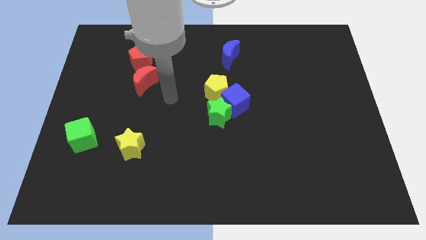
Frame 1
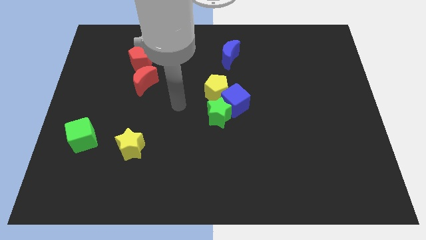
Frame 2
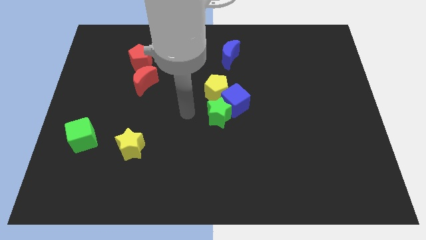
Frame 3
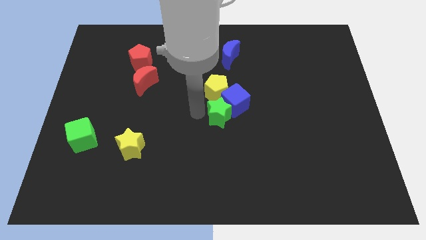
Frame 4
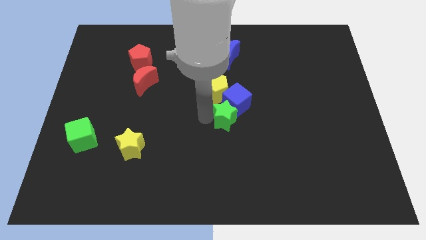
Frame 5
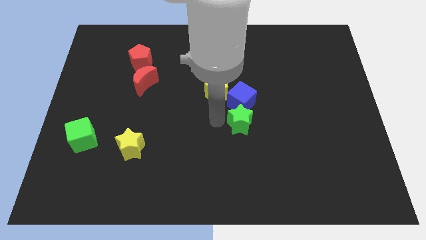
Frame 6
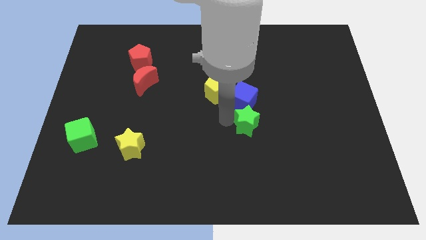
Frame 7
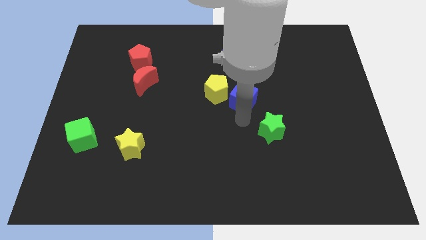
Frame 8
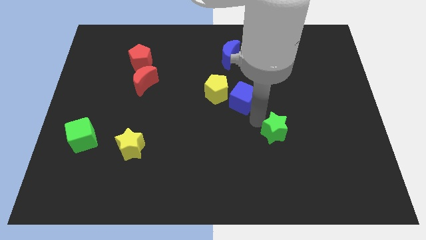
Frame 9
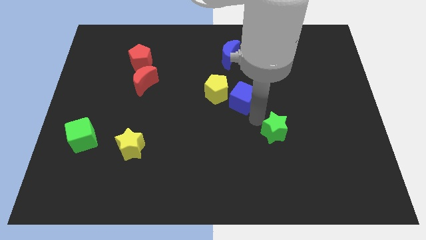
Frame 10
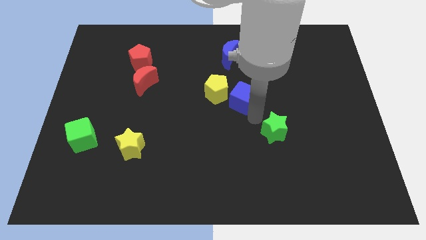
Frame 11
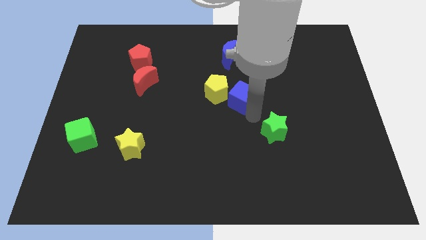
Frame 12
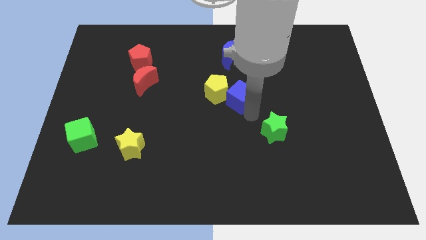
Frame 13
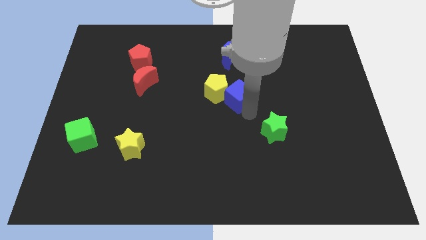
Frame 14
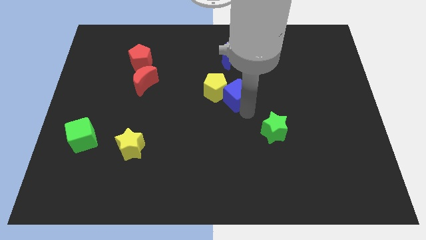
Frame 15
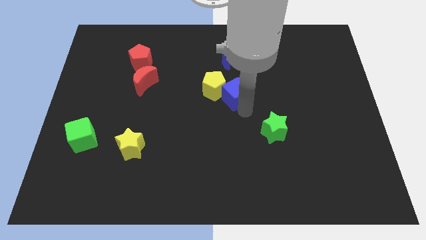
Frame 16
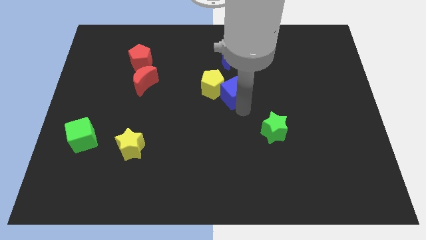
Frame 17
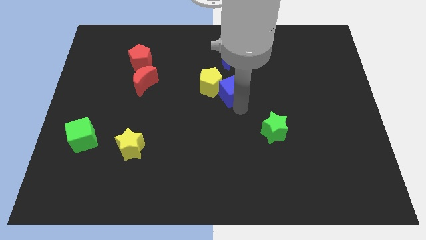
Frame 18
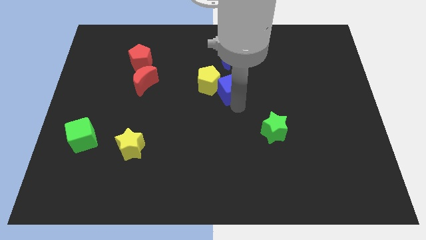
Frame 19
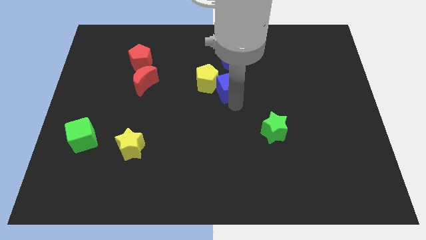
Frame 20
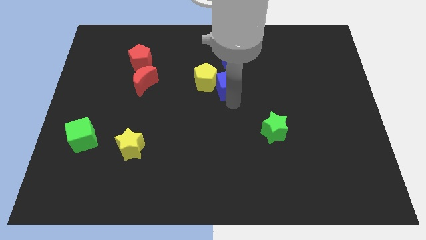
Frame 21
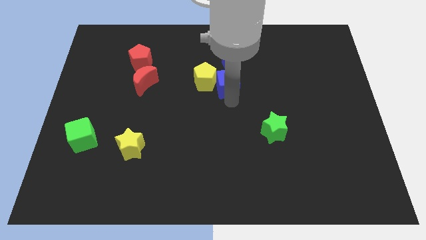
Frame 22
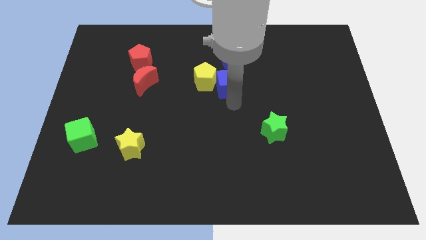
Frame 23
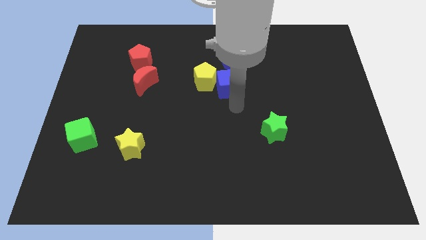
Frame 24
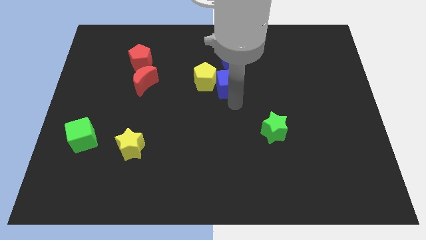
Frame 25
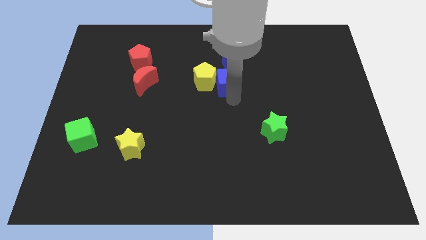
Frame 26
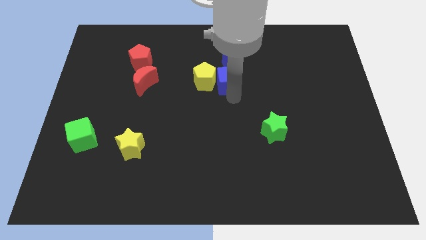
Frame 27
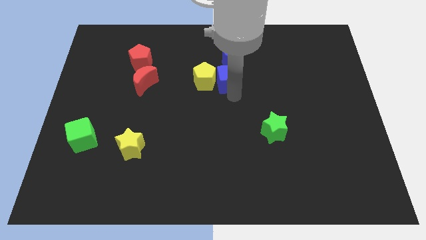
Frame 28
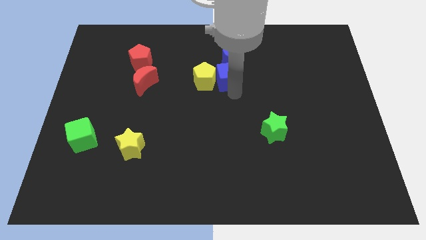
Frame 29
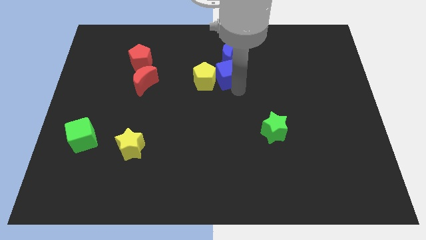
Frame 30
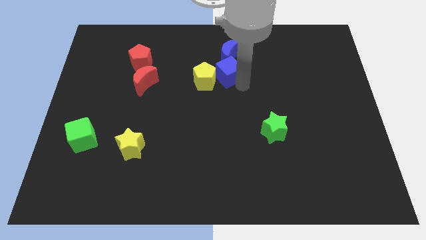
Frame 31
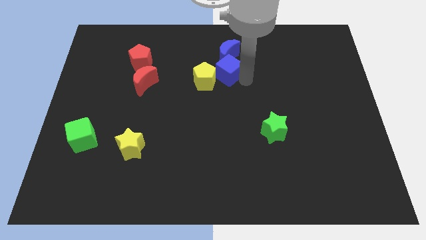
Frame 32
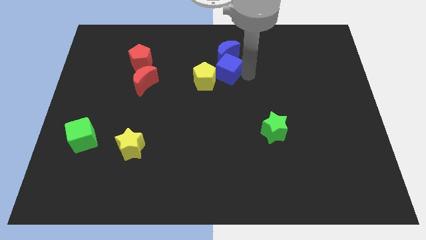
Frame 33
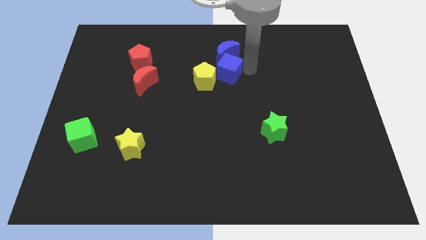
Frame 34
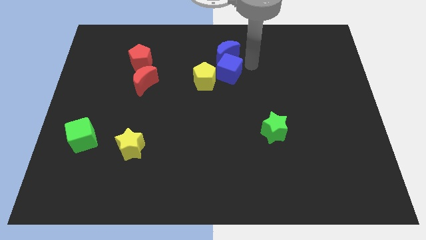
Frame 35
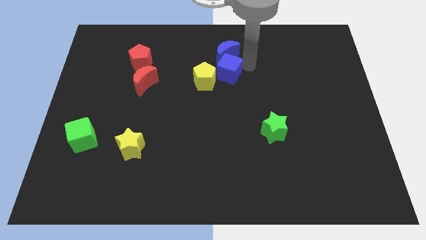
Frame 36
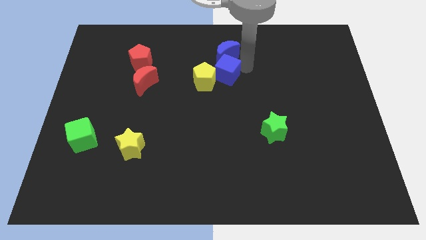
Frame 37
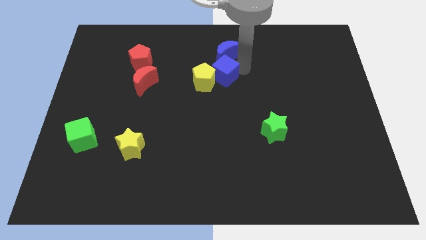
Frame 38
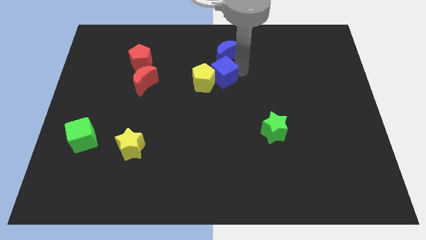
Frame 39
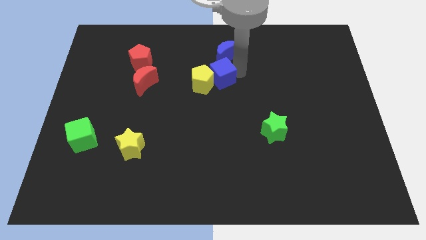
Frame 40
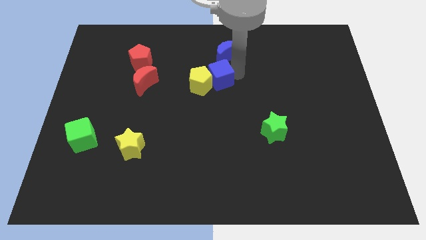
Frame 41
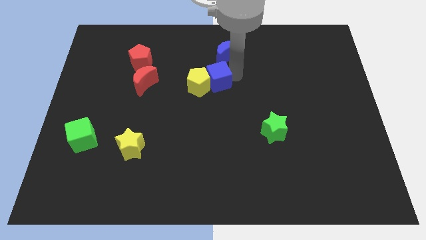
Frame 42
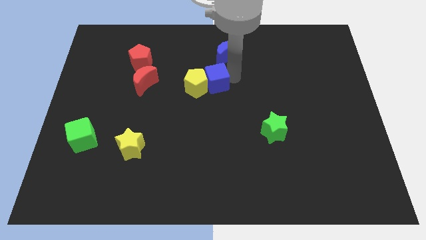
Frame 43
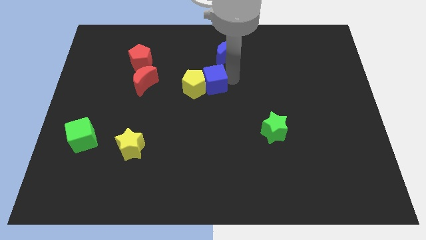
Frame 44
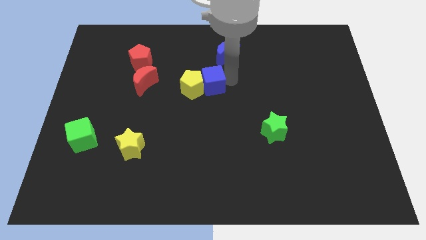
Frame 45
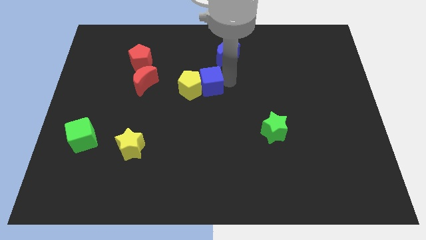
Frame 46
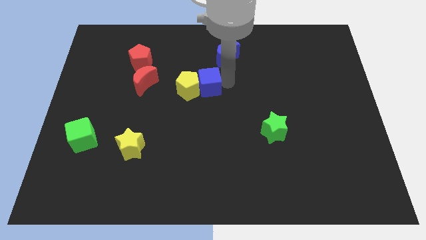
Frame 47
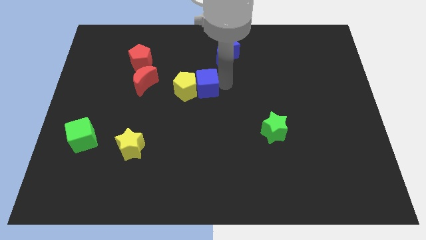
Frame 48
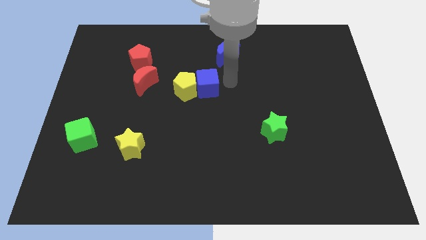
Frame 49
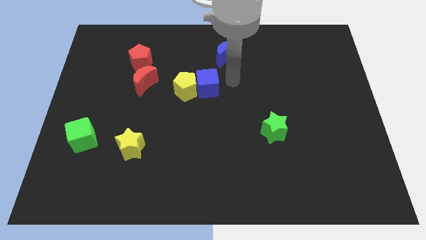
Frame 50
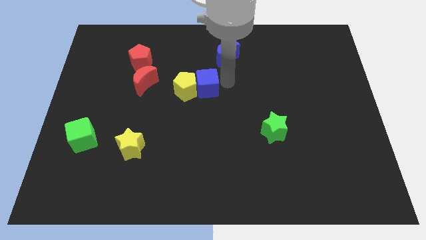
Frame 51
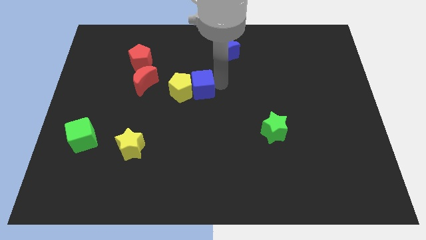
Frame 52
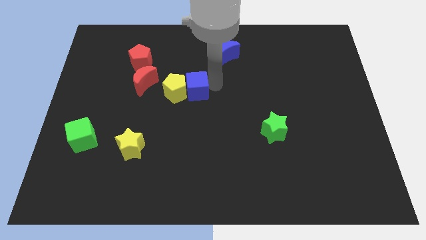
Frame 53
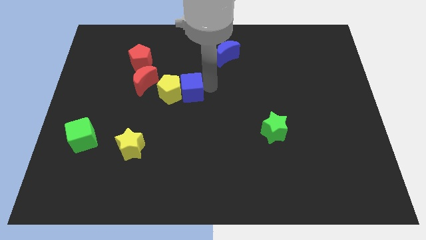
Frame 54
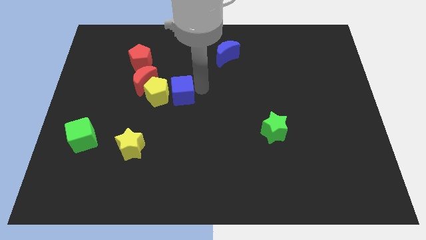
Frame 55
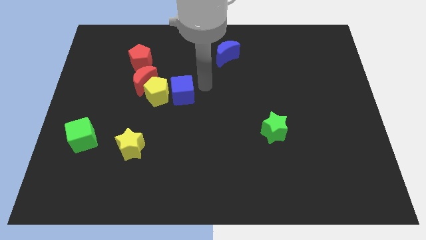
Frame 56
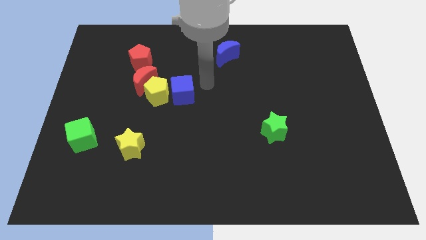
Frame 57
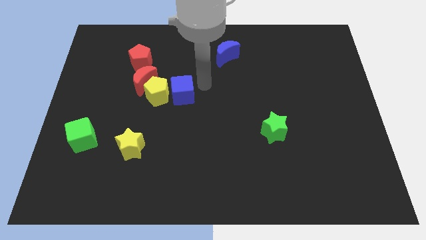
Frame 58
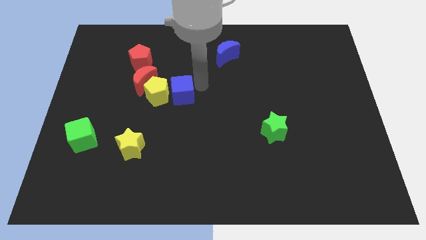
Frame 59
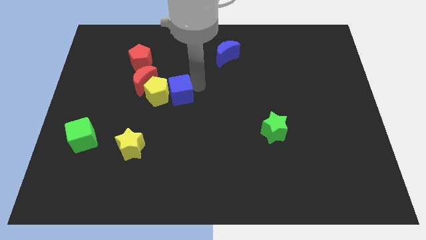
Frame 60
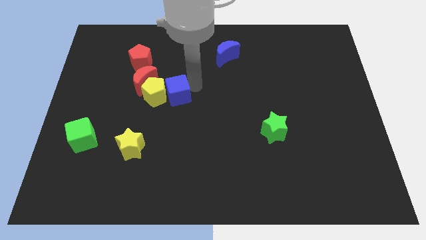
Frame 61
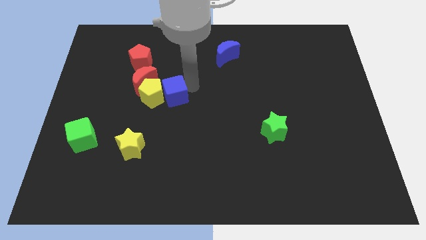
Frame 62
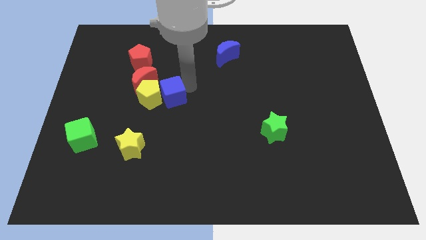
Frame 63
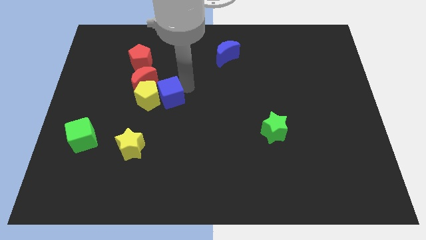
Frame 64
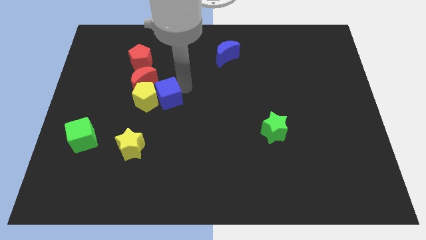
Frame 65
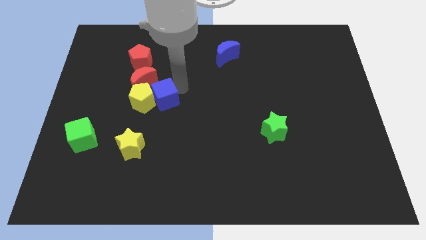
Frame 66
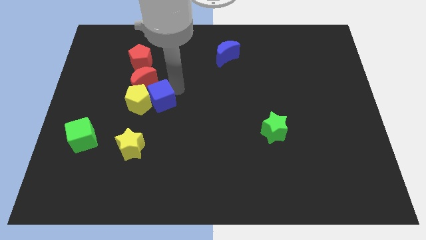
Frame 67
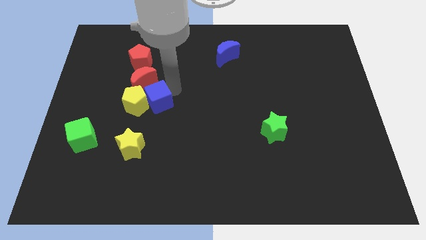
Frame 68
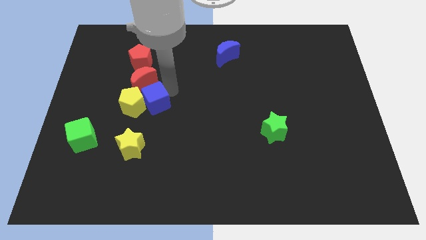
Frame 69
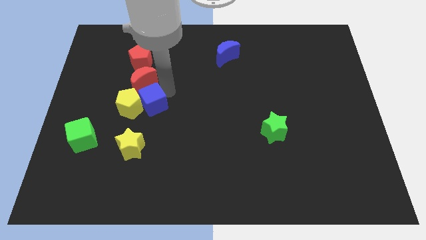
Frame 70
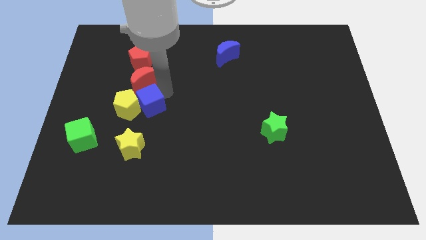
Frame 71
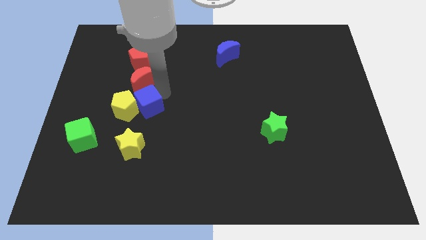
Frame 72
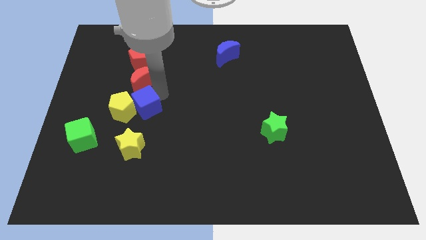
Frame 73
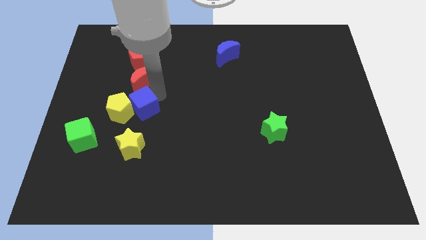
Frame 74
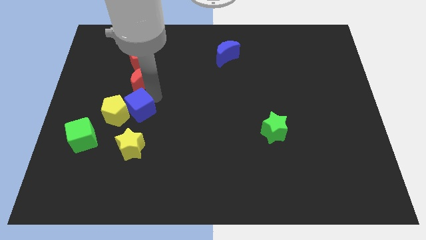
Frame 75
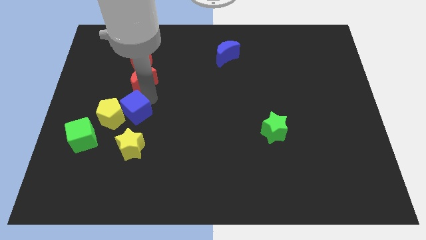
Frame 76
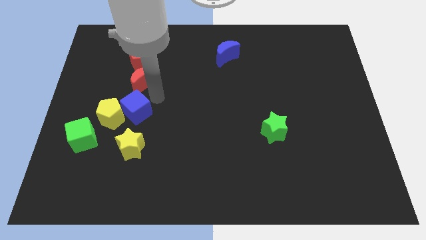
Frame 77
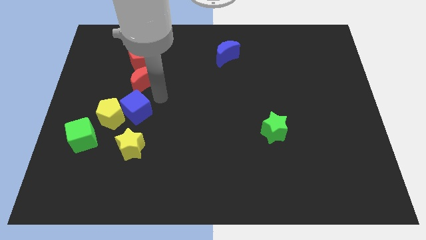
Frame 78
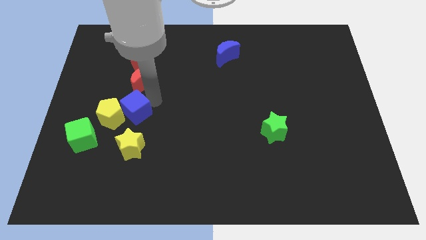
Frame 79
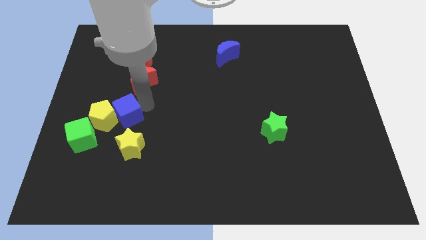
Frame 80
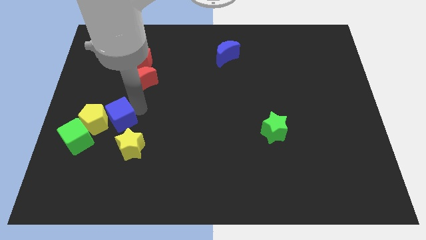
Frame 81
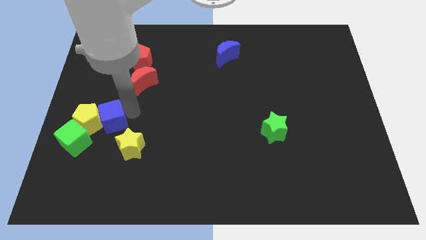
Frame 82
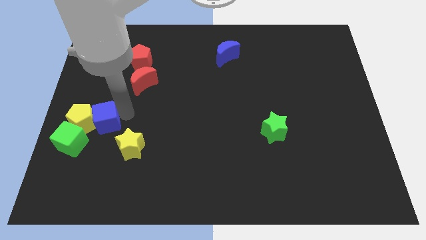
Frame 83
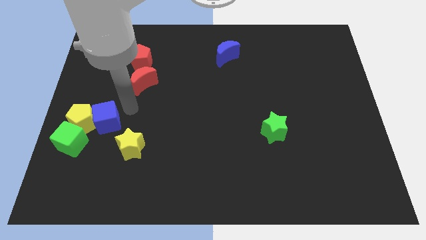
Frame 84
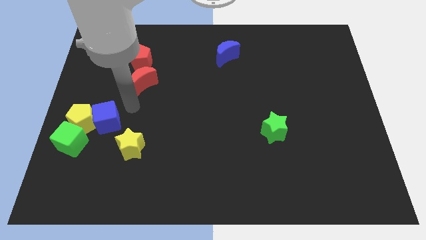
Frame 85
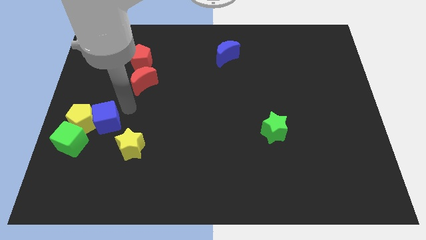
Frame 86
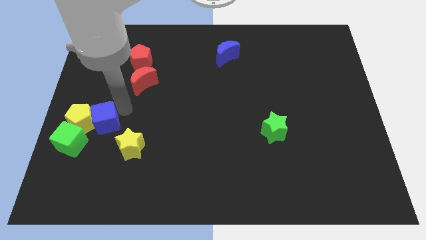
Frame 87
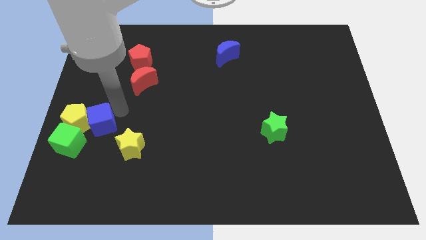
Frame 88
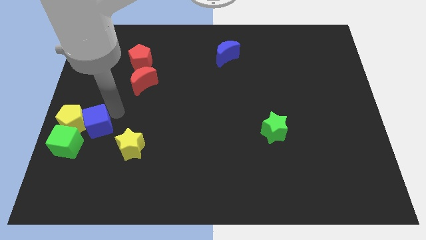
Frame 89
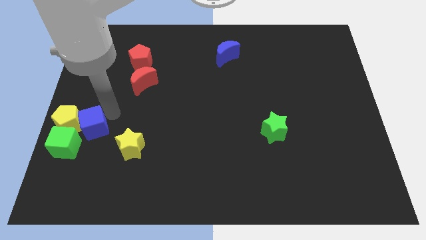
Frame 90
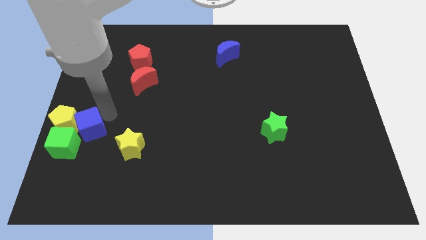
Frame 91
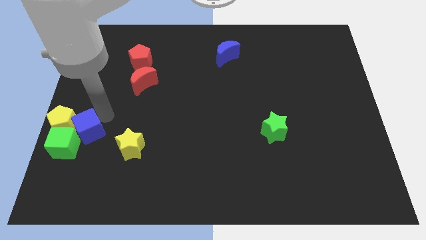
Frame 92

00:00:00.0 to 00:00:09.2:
push the blue cube to the green cube
